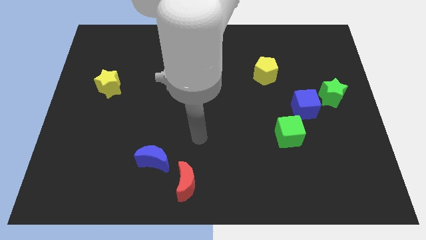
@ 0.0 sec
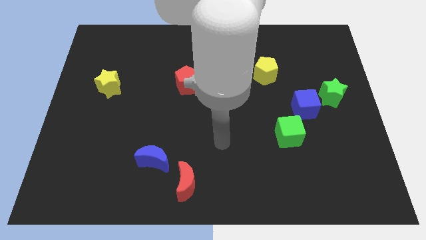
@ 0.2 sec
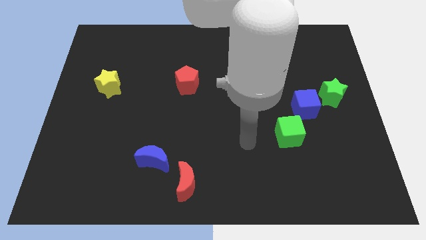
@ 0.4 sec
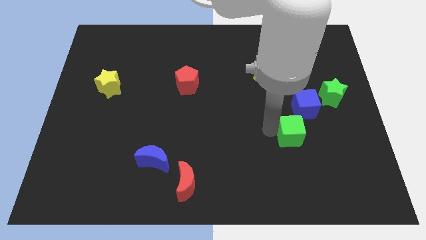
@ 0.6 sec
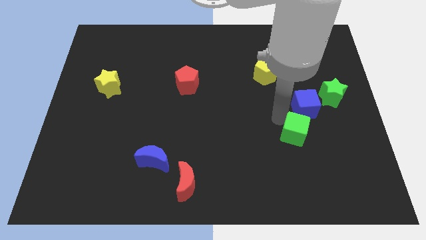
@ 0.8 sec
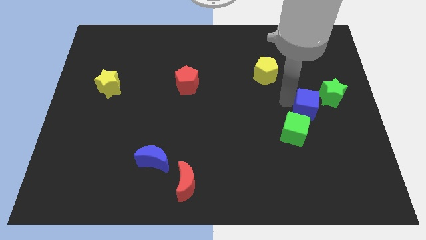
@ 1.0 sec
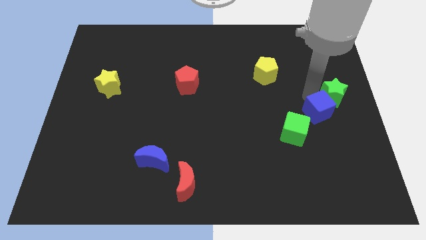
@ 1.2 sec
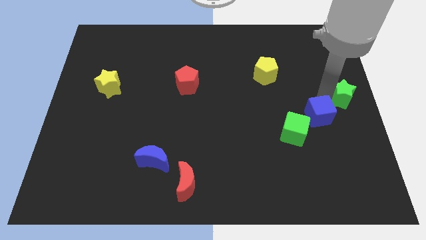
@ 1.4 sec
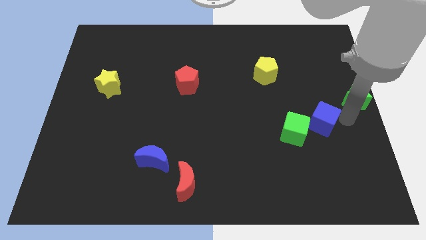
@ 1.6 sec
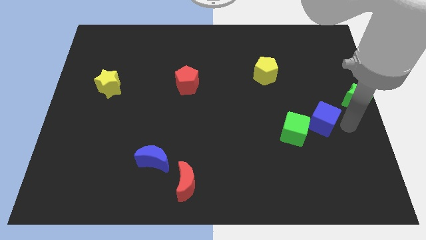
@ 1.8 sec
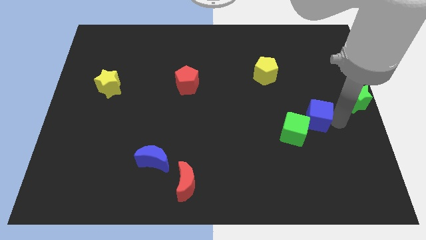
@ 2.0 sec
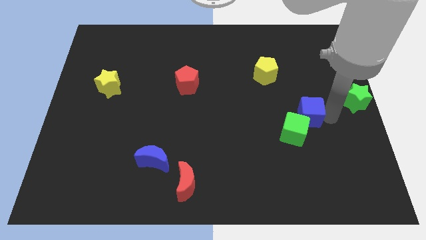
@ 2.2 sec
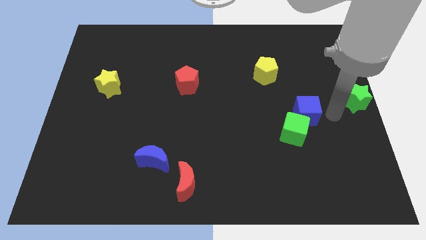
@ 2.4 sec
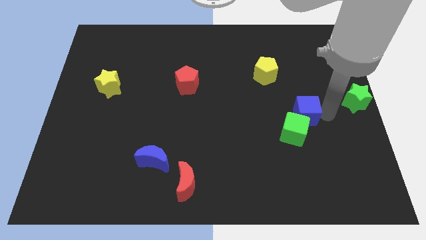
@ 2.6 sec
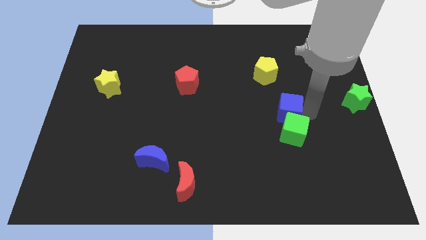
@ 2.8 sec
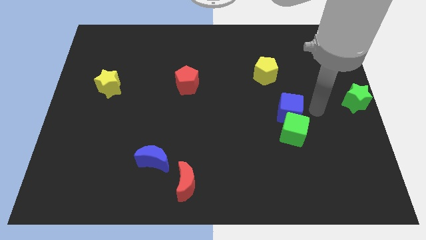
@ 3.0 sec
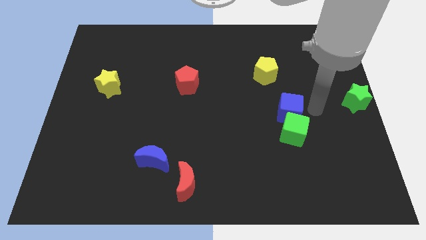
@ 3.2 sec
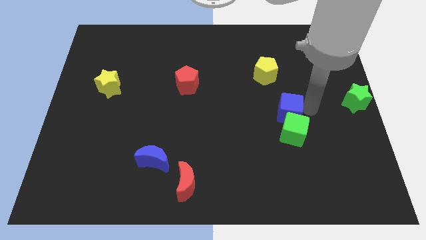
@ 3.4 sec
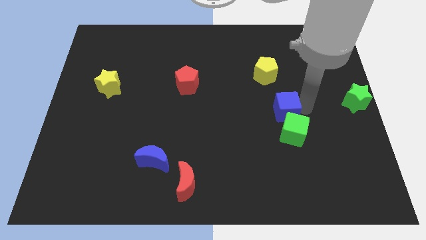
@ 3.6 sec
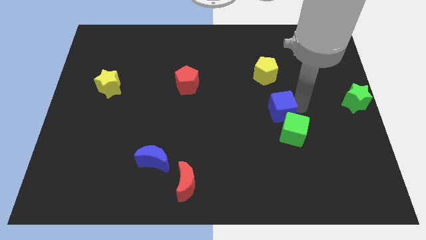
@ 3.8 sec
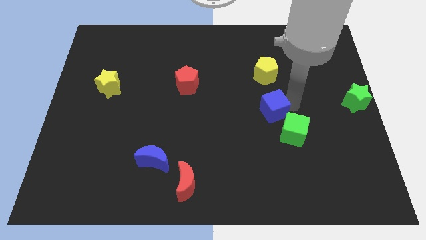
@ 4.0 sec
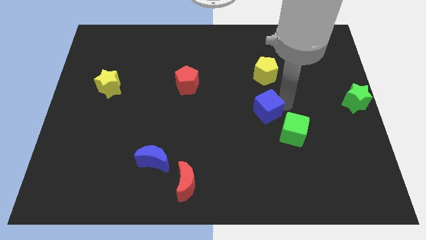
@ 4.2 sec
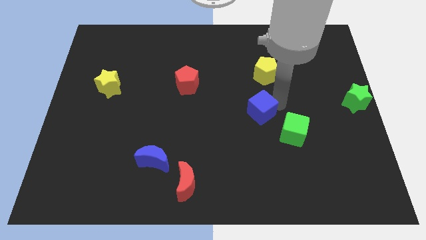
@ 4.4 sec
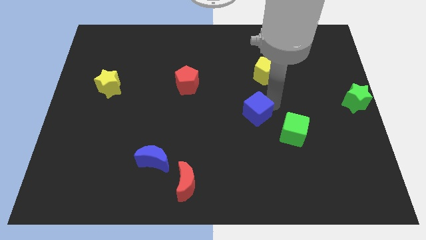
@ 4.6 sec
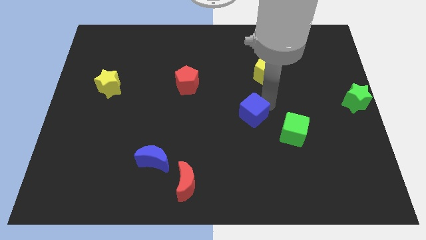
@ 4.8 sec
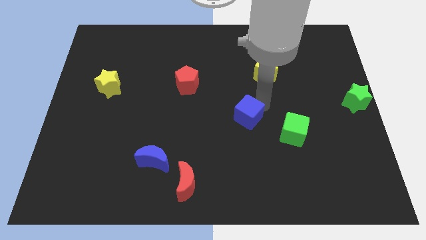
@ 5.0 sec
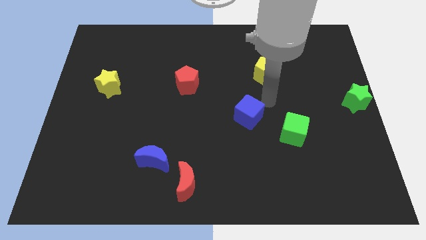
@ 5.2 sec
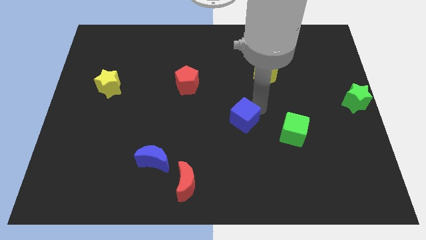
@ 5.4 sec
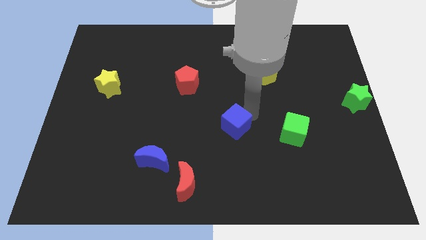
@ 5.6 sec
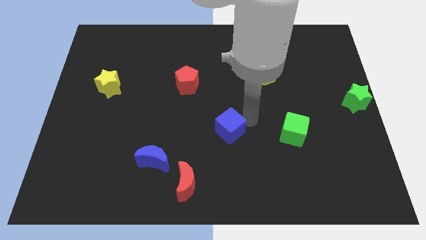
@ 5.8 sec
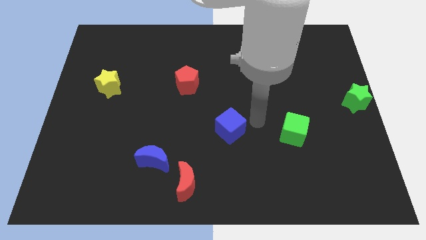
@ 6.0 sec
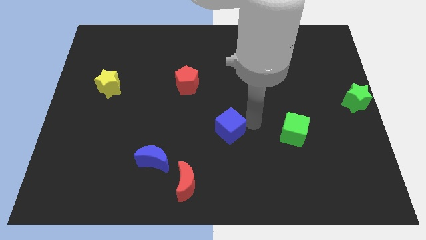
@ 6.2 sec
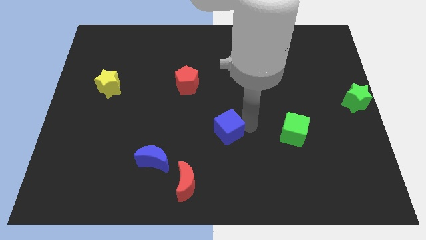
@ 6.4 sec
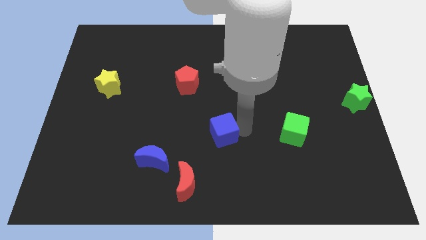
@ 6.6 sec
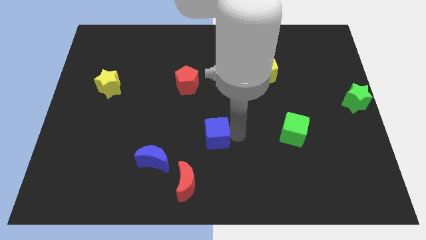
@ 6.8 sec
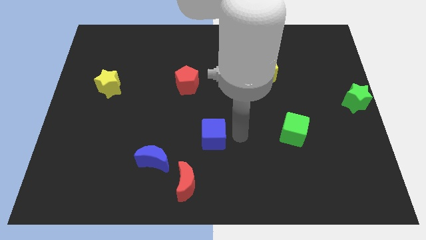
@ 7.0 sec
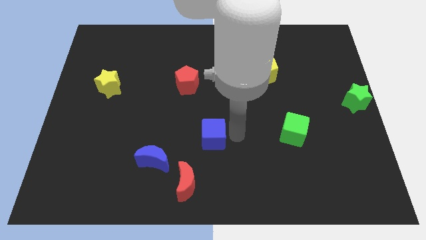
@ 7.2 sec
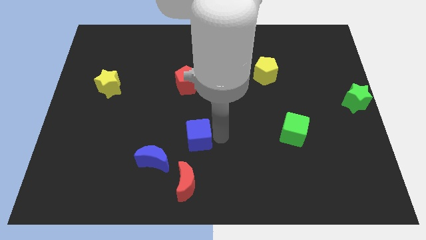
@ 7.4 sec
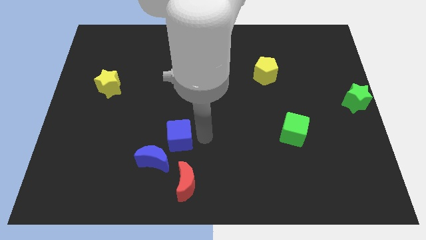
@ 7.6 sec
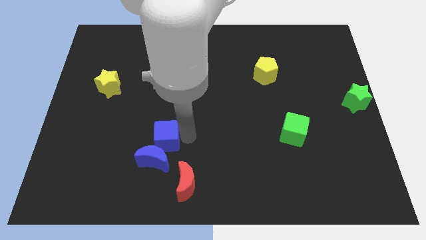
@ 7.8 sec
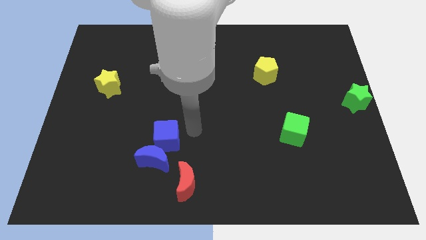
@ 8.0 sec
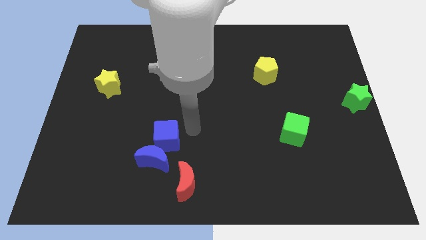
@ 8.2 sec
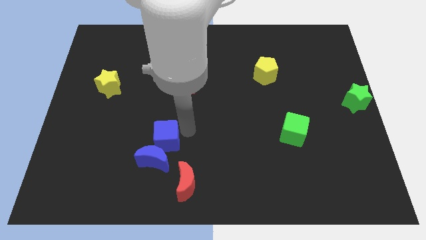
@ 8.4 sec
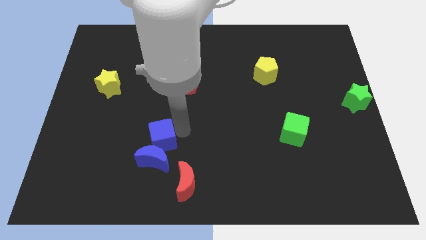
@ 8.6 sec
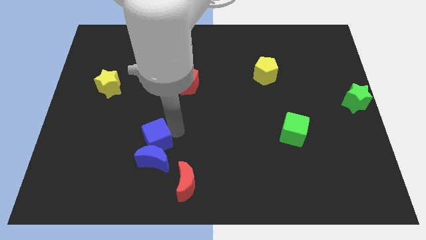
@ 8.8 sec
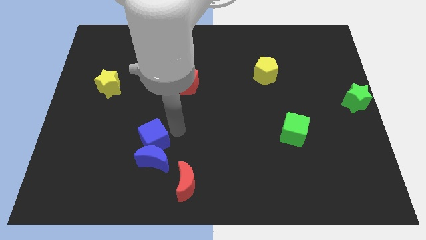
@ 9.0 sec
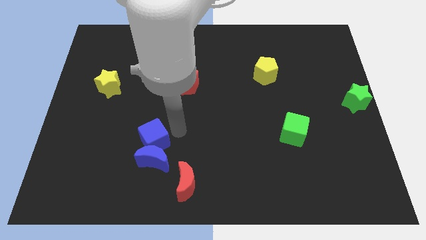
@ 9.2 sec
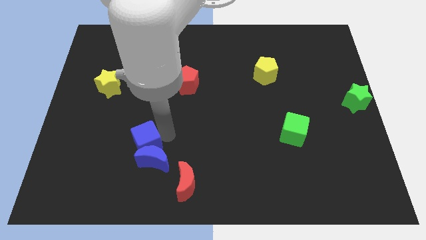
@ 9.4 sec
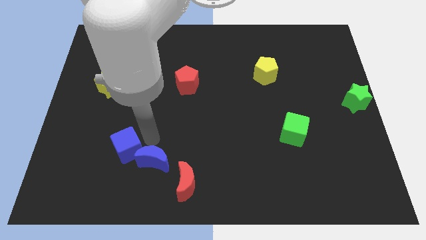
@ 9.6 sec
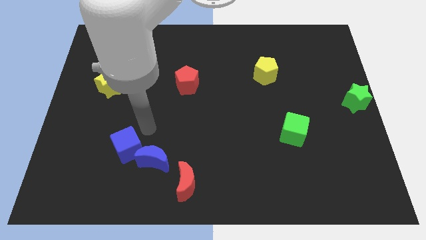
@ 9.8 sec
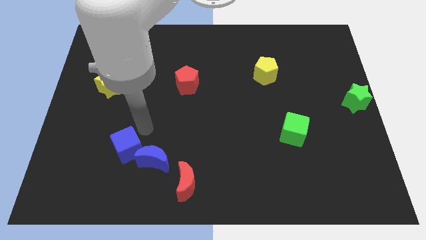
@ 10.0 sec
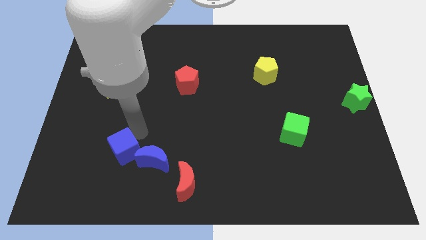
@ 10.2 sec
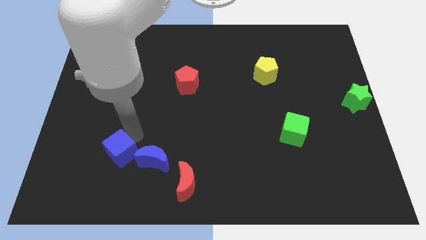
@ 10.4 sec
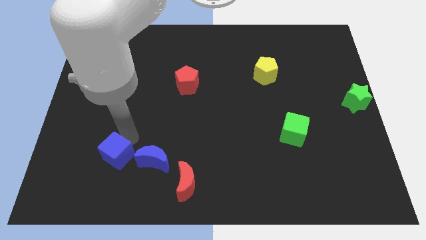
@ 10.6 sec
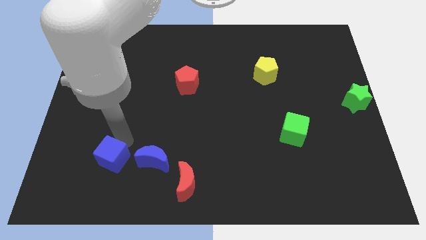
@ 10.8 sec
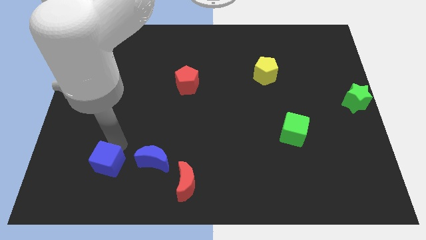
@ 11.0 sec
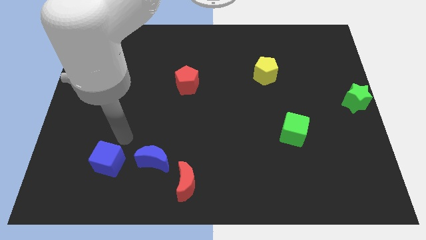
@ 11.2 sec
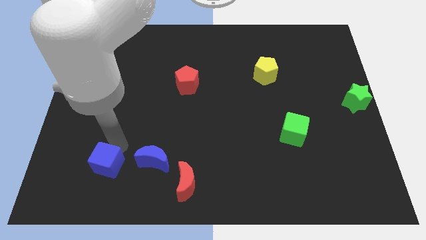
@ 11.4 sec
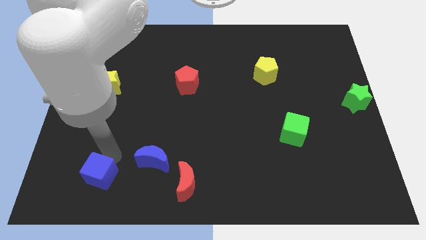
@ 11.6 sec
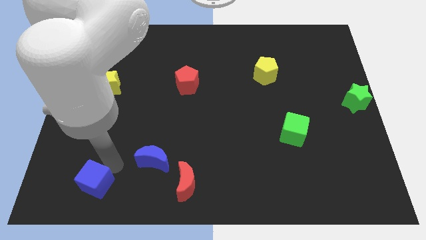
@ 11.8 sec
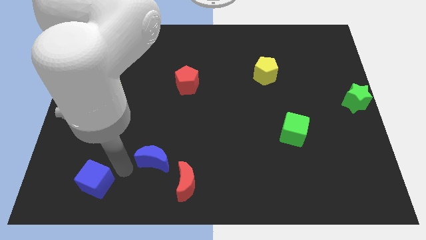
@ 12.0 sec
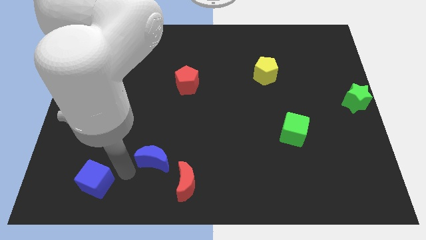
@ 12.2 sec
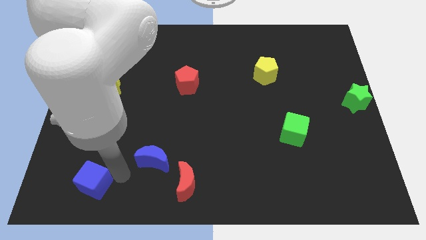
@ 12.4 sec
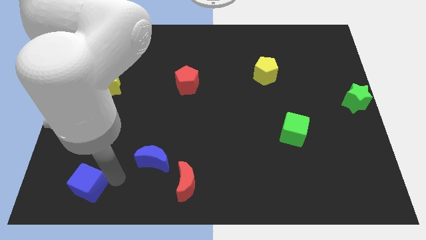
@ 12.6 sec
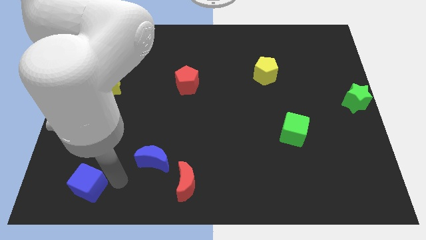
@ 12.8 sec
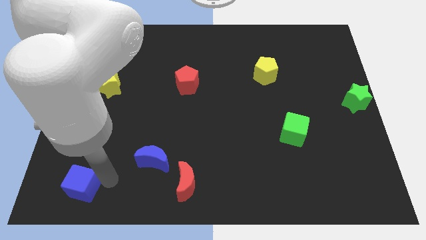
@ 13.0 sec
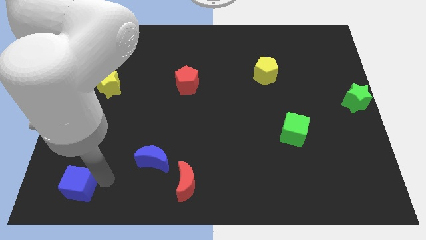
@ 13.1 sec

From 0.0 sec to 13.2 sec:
slide the blue cube to the bottom left corner
